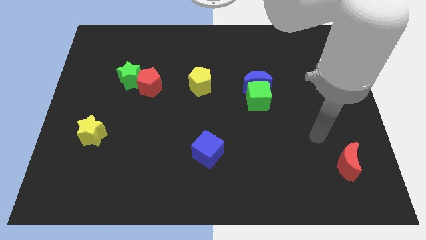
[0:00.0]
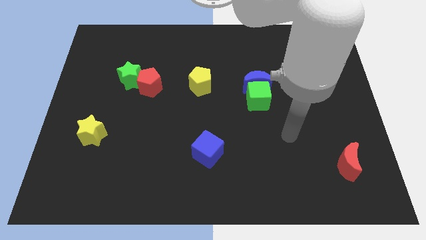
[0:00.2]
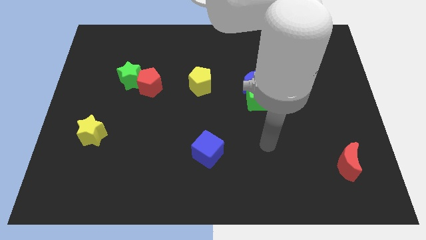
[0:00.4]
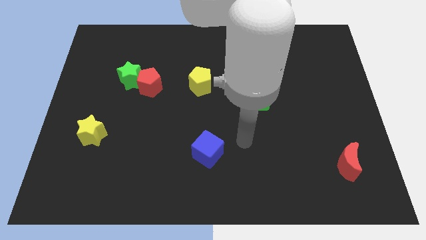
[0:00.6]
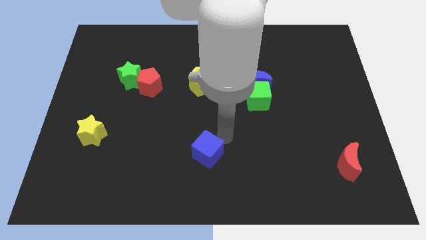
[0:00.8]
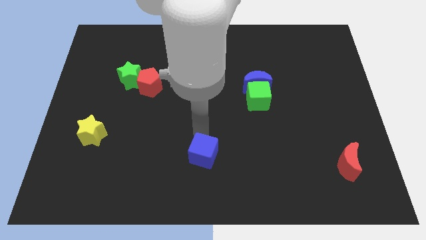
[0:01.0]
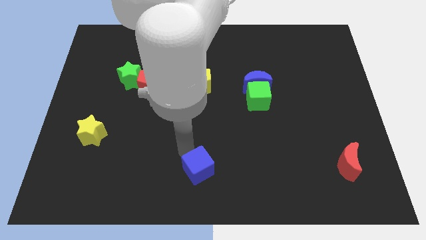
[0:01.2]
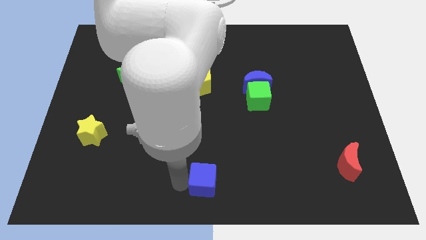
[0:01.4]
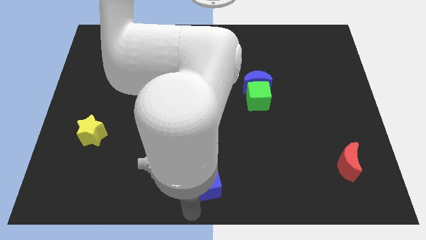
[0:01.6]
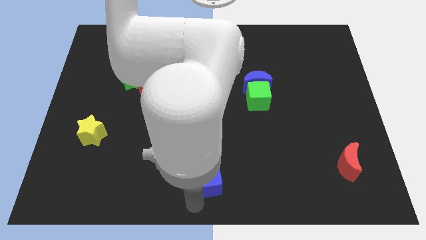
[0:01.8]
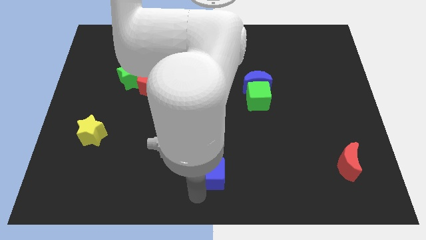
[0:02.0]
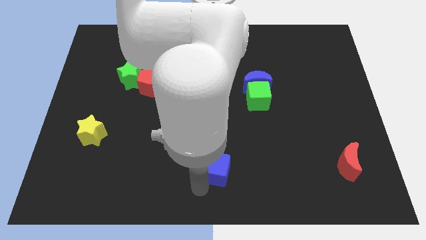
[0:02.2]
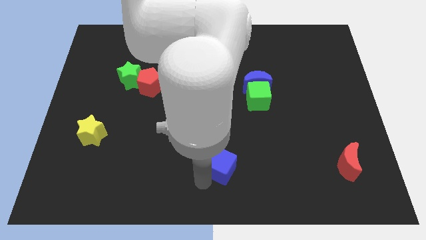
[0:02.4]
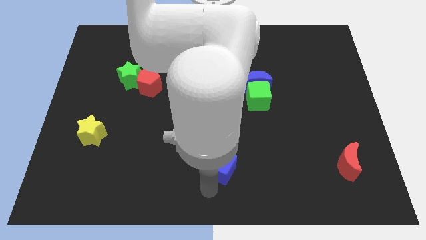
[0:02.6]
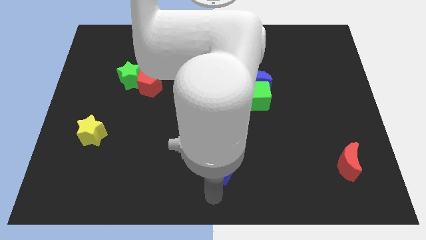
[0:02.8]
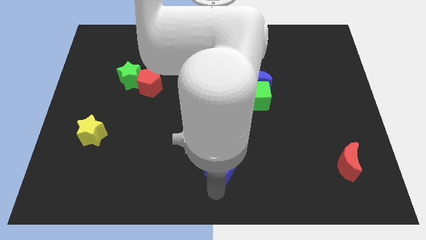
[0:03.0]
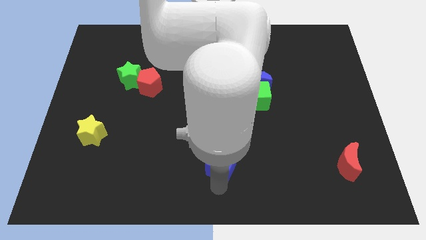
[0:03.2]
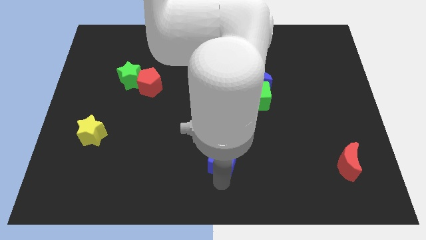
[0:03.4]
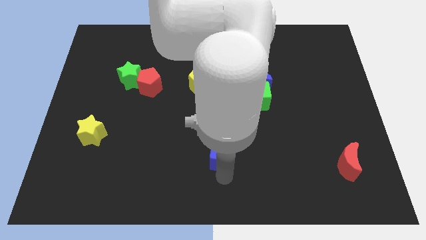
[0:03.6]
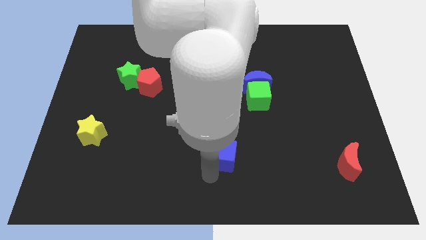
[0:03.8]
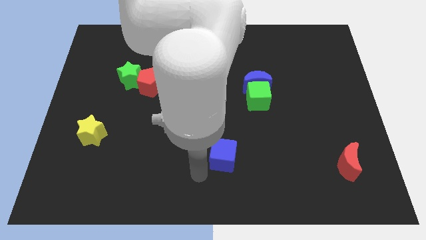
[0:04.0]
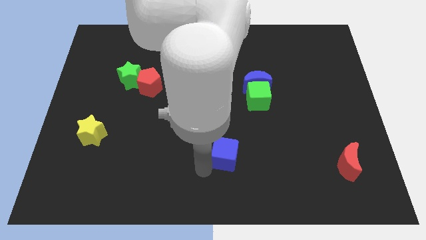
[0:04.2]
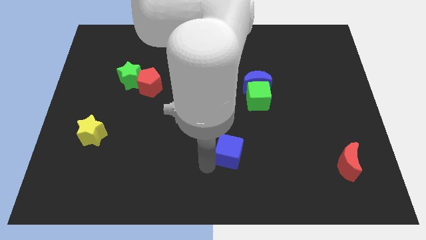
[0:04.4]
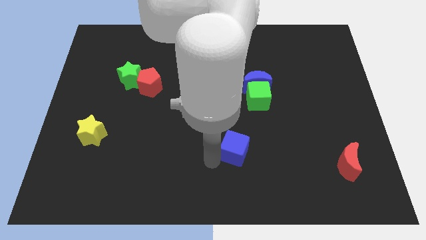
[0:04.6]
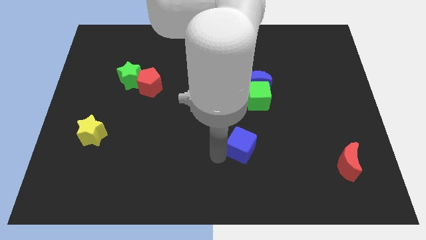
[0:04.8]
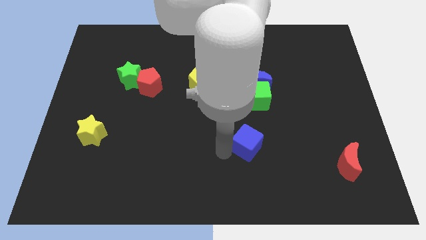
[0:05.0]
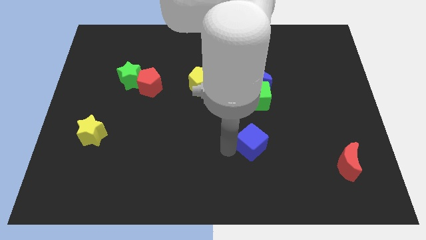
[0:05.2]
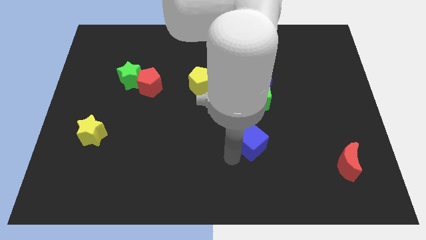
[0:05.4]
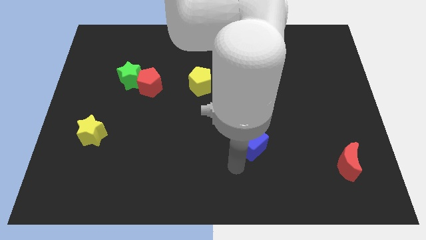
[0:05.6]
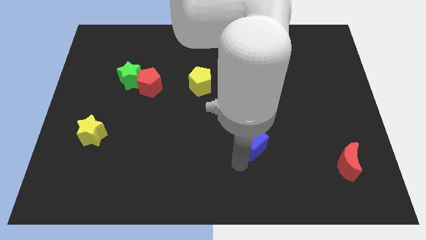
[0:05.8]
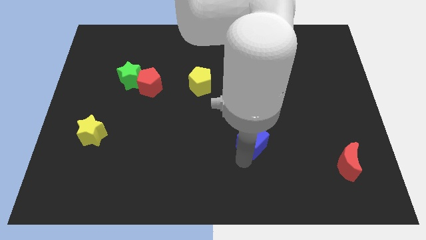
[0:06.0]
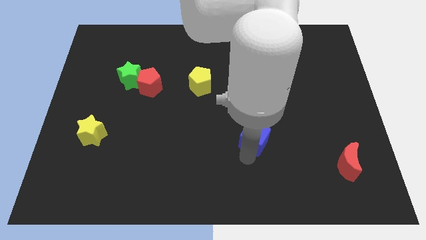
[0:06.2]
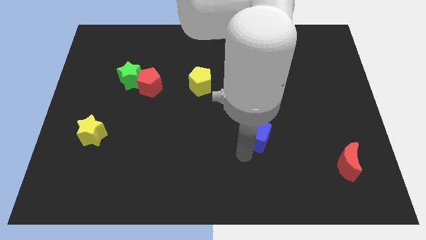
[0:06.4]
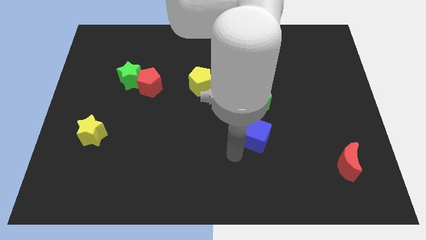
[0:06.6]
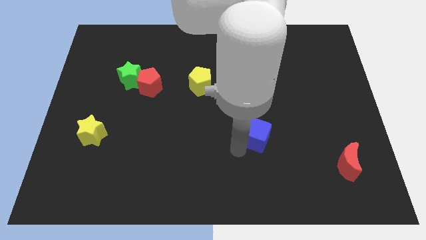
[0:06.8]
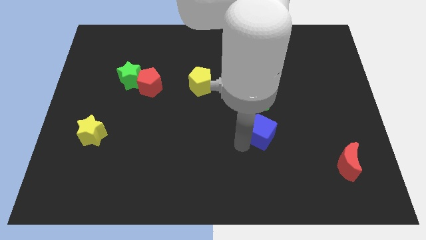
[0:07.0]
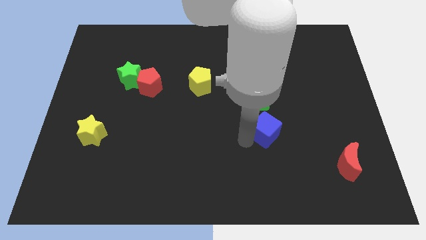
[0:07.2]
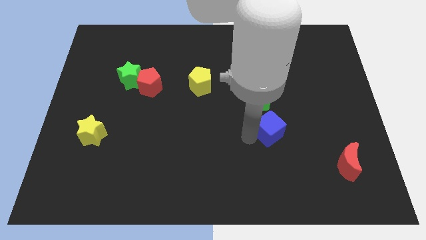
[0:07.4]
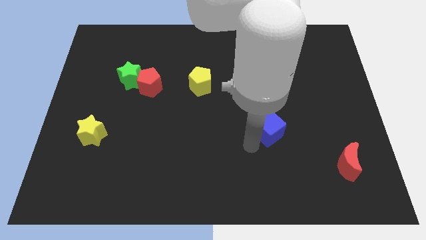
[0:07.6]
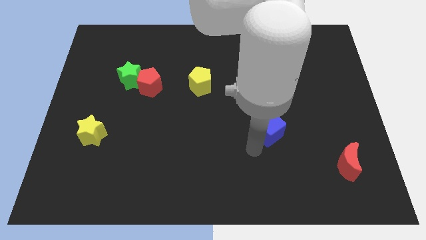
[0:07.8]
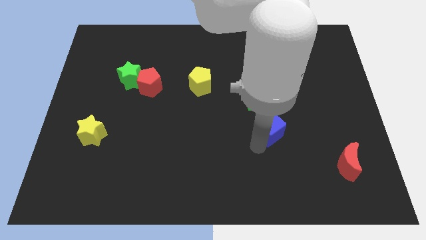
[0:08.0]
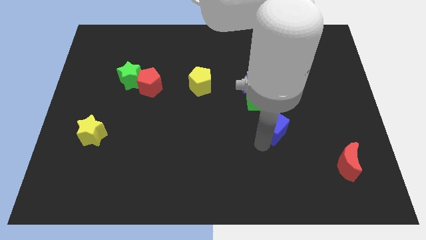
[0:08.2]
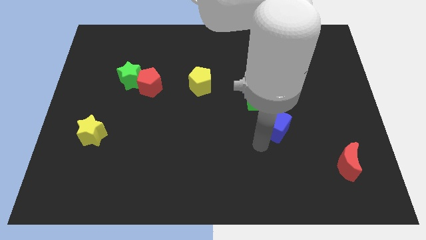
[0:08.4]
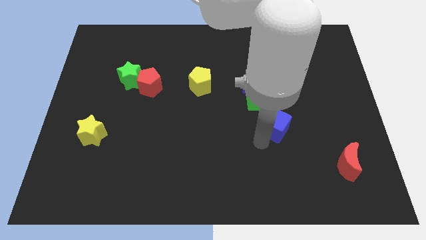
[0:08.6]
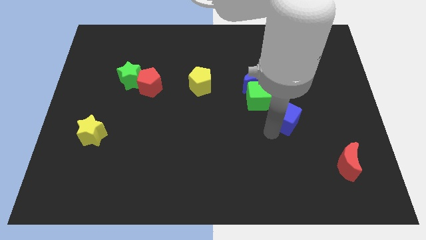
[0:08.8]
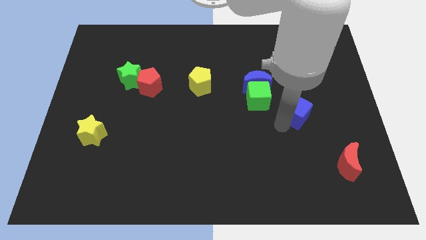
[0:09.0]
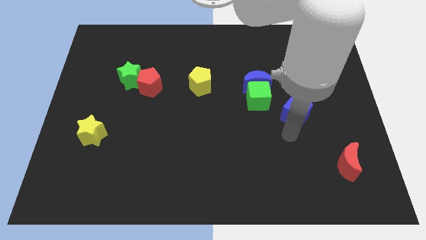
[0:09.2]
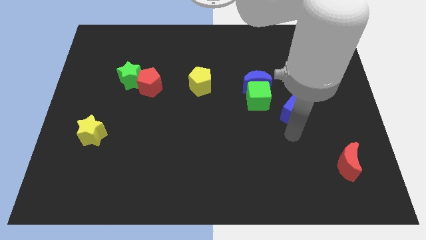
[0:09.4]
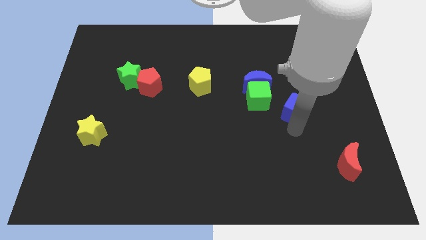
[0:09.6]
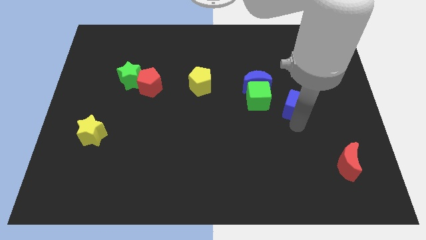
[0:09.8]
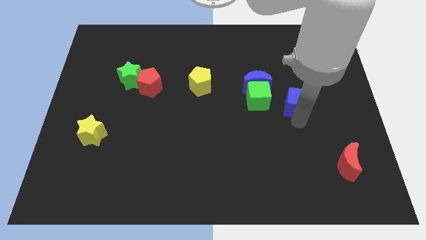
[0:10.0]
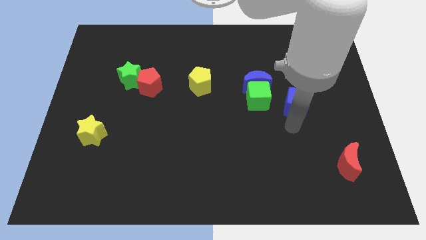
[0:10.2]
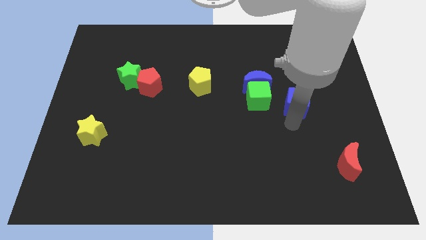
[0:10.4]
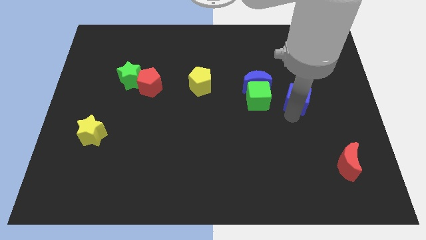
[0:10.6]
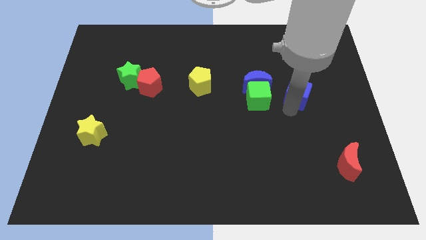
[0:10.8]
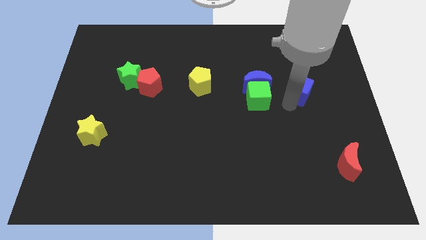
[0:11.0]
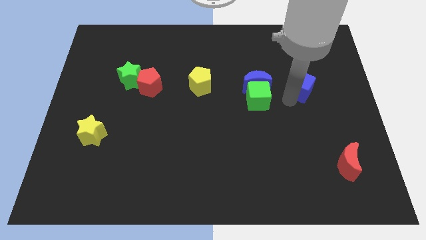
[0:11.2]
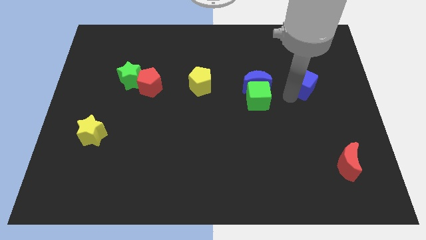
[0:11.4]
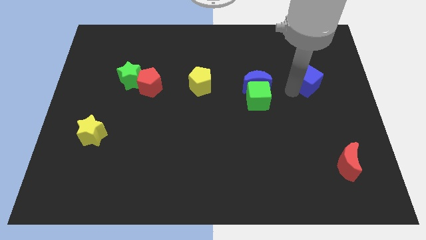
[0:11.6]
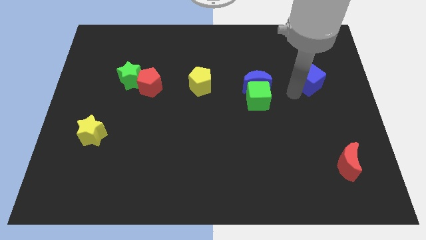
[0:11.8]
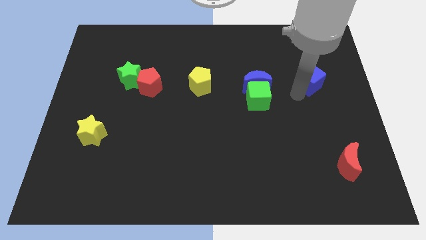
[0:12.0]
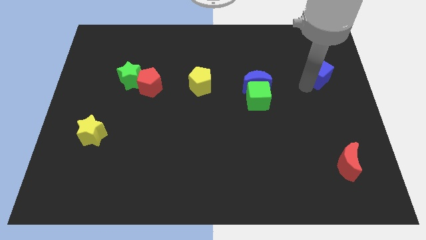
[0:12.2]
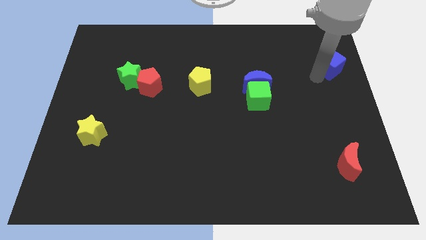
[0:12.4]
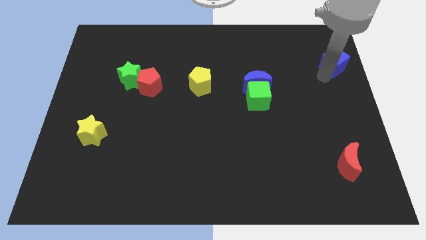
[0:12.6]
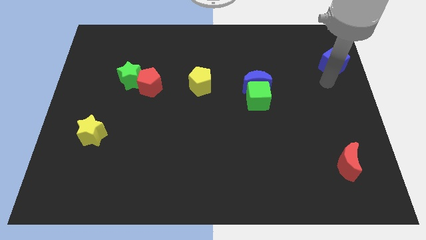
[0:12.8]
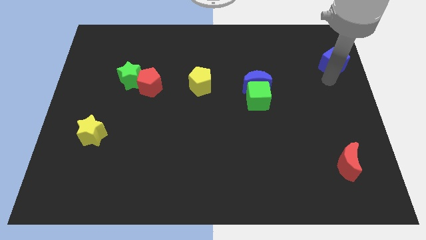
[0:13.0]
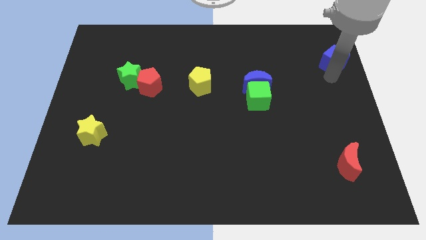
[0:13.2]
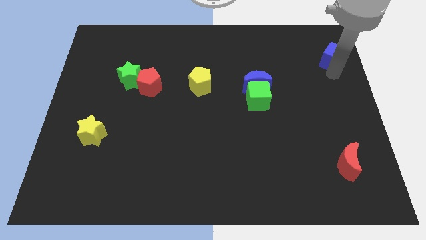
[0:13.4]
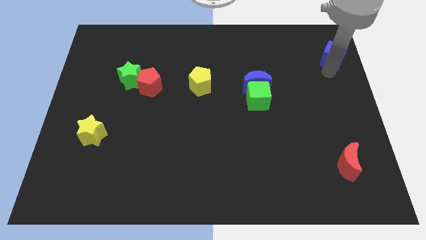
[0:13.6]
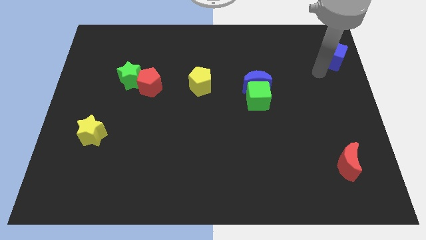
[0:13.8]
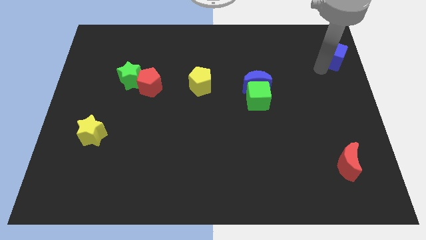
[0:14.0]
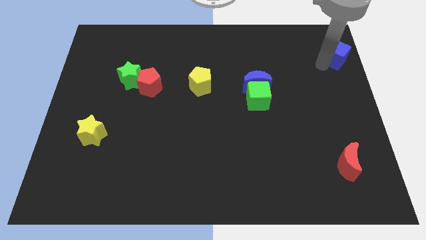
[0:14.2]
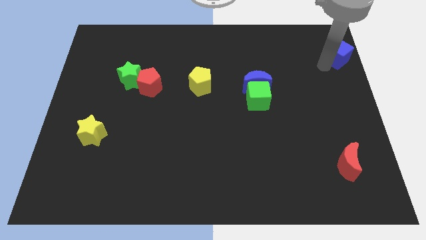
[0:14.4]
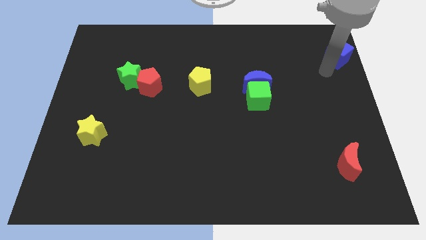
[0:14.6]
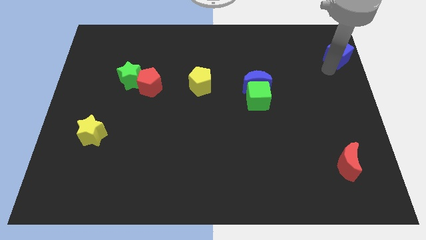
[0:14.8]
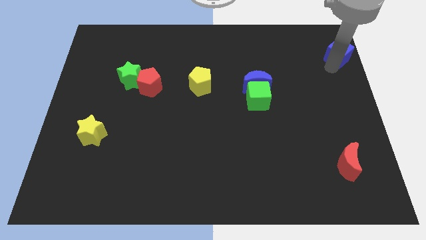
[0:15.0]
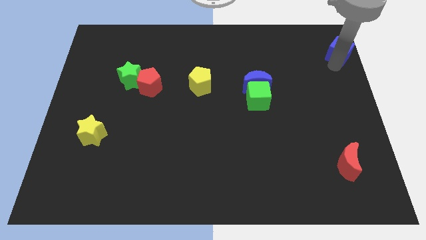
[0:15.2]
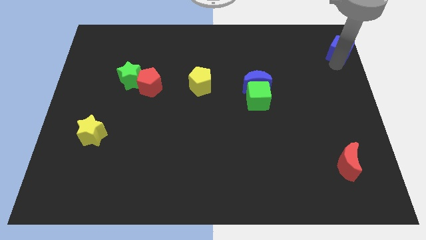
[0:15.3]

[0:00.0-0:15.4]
slide the blue cube to the top right corner
